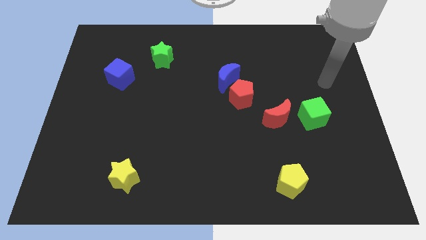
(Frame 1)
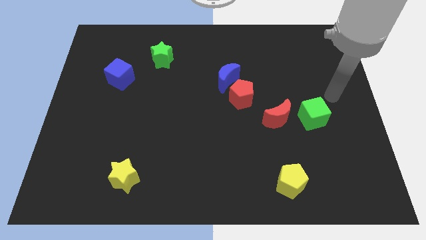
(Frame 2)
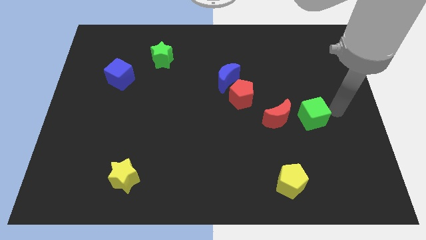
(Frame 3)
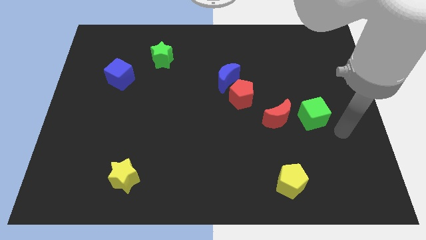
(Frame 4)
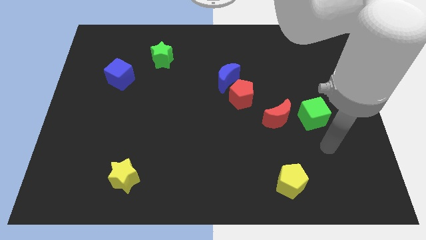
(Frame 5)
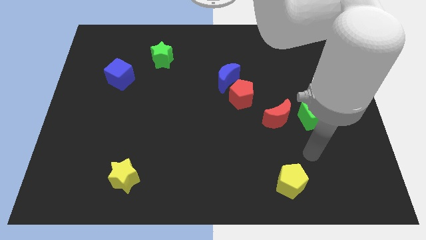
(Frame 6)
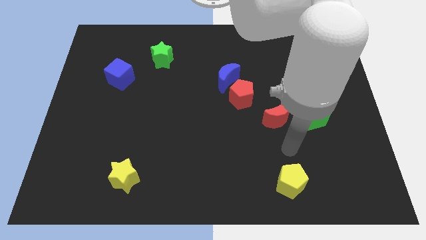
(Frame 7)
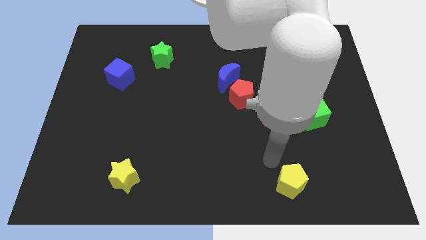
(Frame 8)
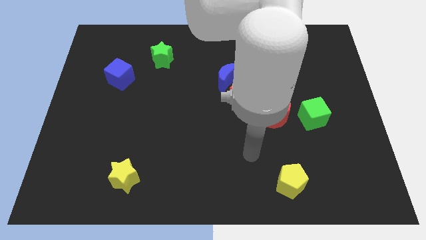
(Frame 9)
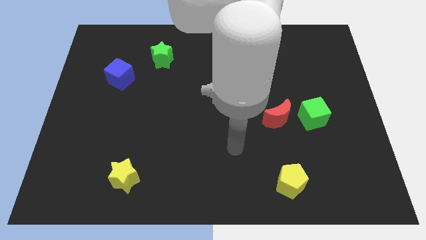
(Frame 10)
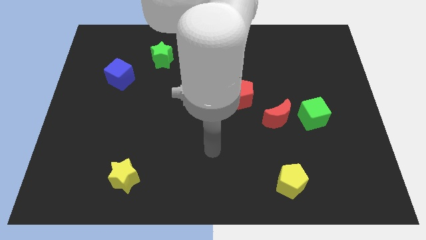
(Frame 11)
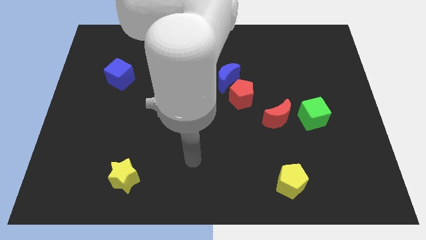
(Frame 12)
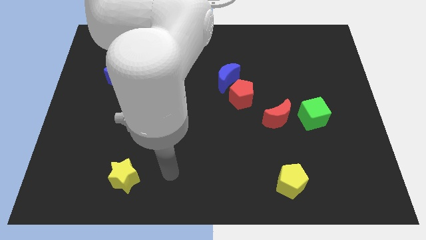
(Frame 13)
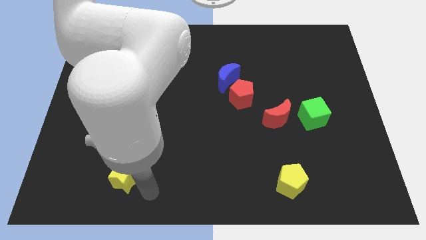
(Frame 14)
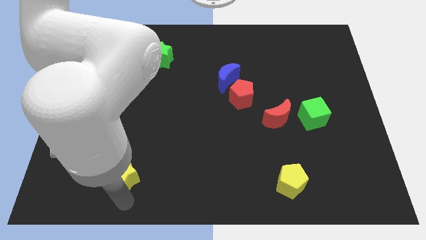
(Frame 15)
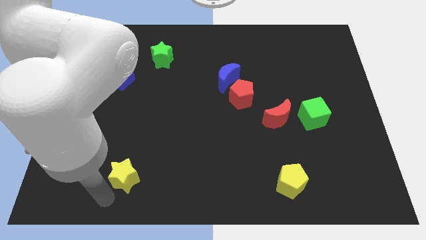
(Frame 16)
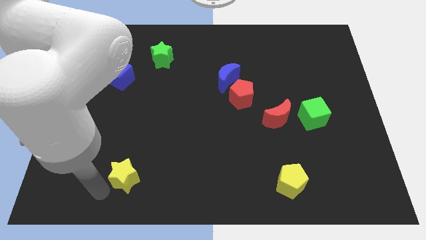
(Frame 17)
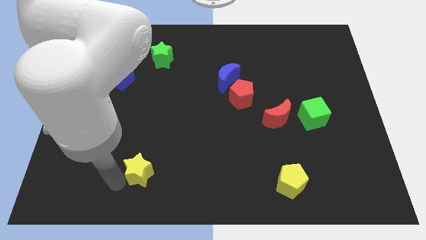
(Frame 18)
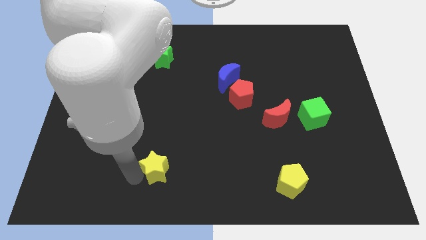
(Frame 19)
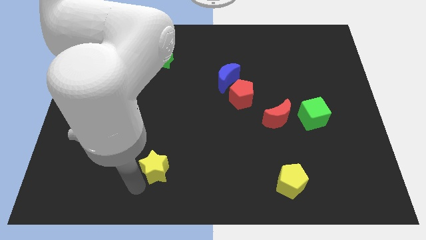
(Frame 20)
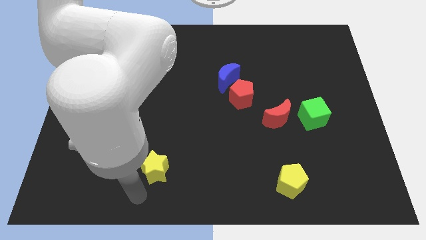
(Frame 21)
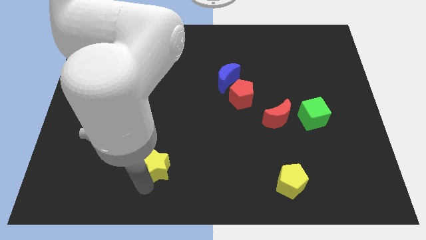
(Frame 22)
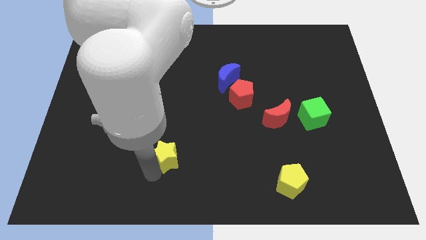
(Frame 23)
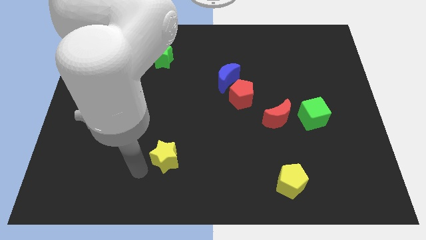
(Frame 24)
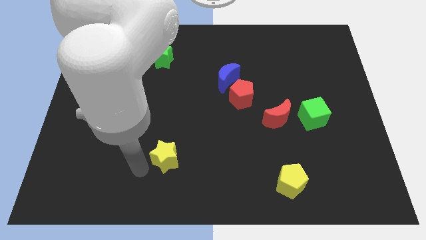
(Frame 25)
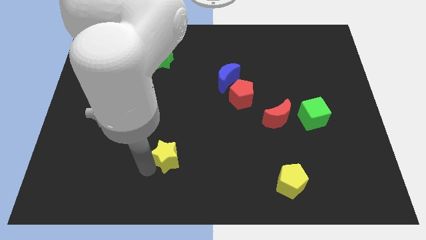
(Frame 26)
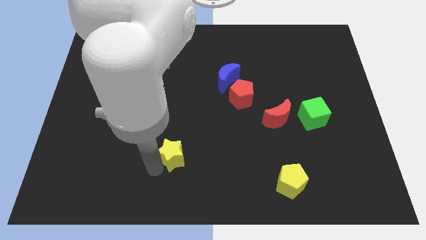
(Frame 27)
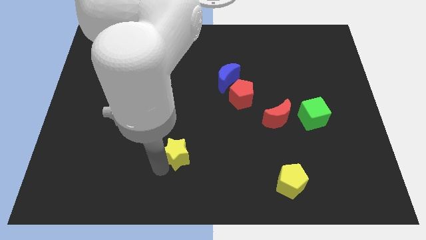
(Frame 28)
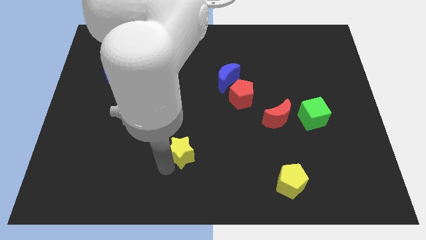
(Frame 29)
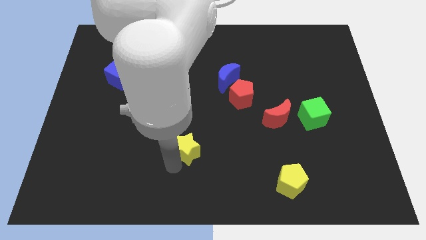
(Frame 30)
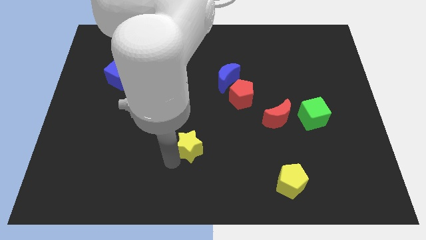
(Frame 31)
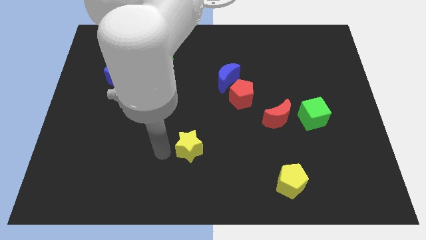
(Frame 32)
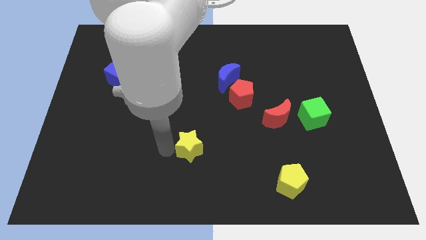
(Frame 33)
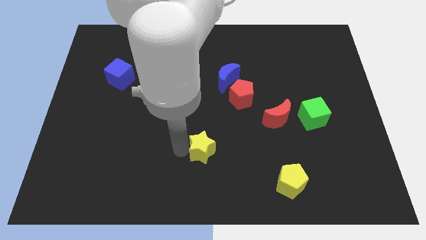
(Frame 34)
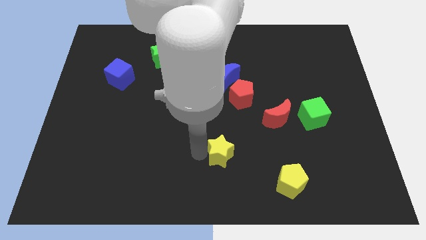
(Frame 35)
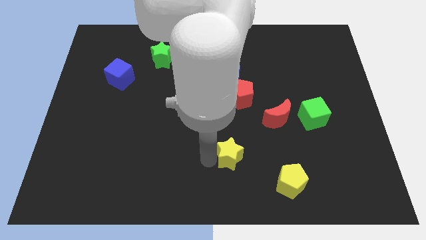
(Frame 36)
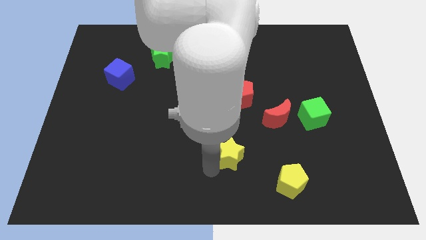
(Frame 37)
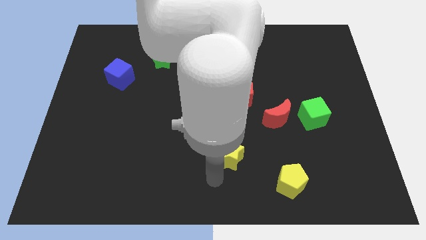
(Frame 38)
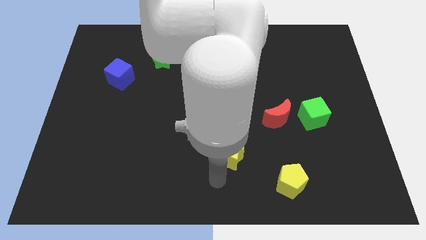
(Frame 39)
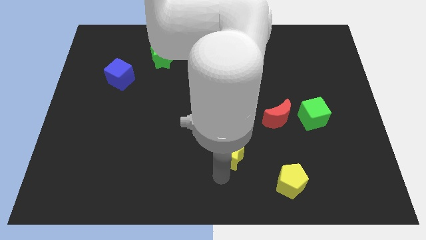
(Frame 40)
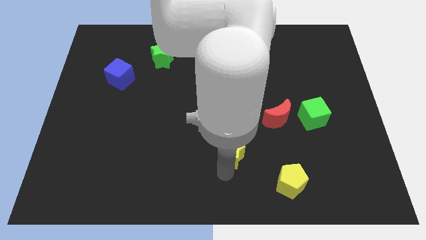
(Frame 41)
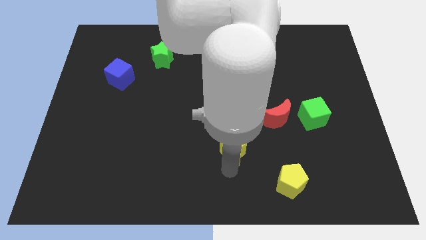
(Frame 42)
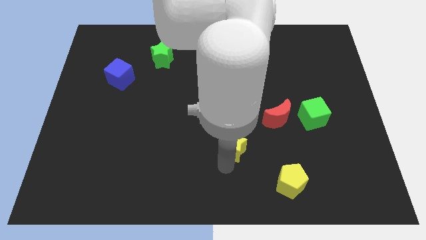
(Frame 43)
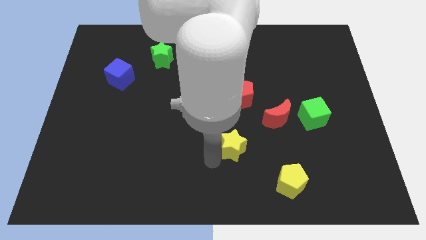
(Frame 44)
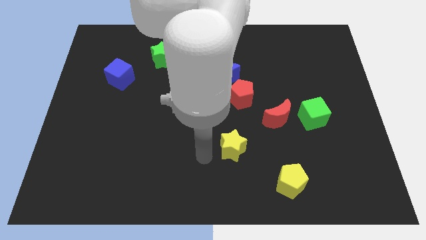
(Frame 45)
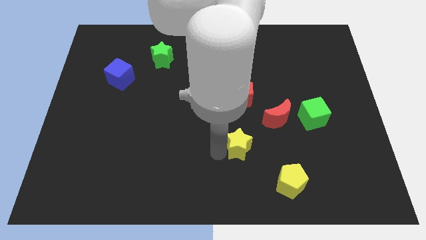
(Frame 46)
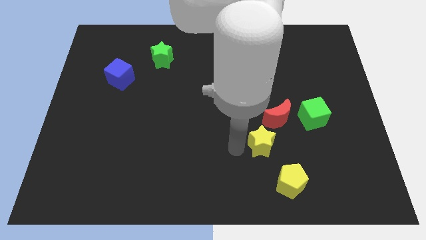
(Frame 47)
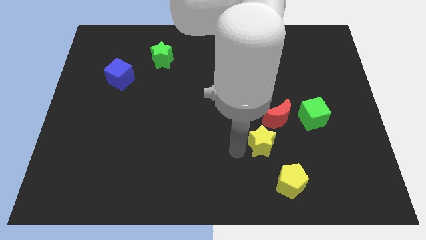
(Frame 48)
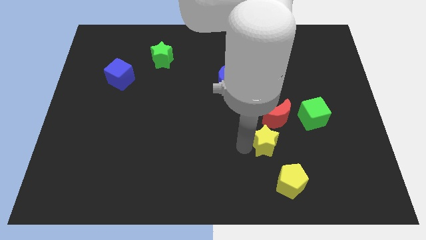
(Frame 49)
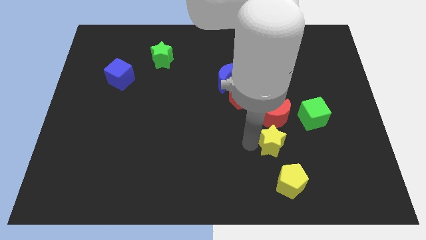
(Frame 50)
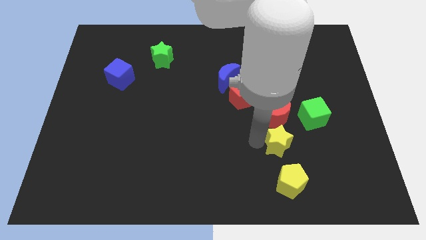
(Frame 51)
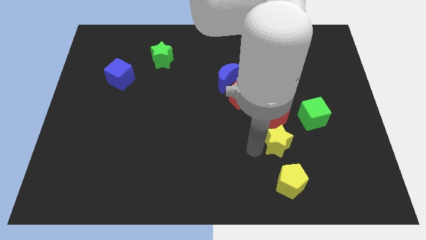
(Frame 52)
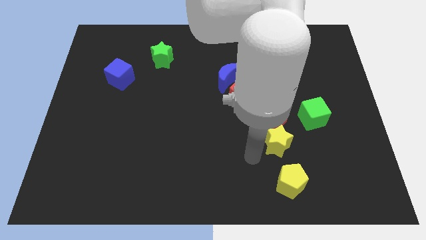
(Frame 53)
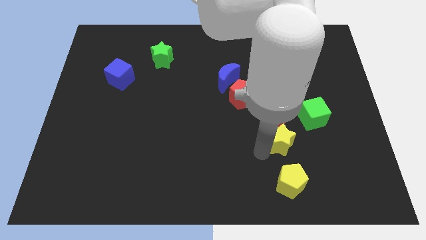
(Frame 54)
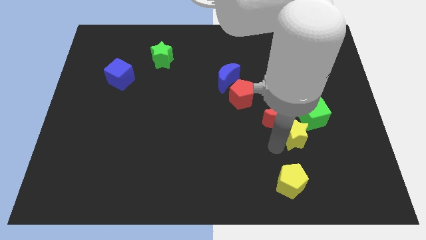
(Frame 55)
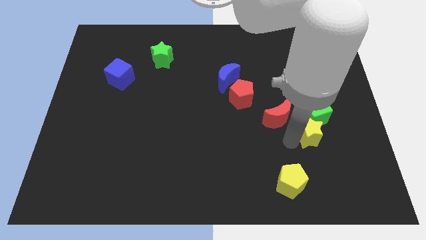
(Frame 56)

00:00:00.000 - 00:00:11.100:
slide the yellow star close to the green cube

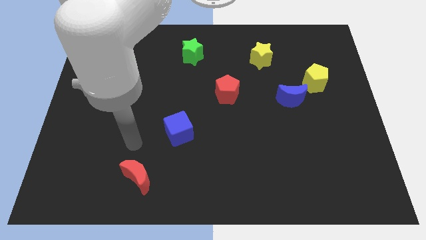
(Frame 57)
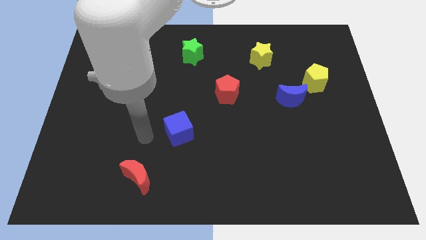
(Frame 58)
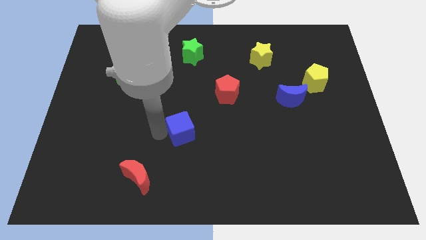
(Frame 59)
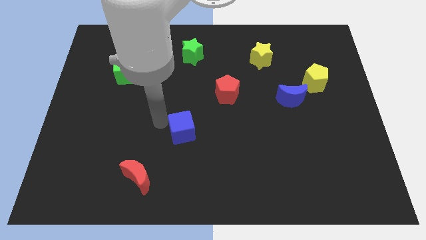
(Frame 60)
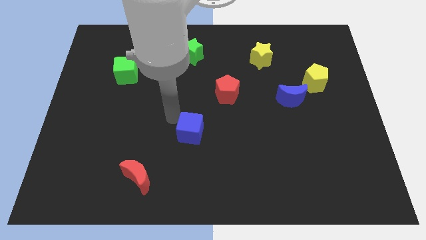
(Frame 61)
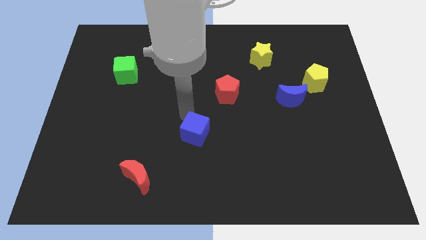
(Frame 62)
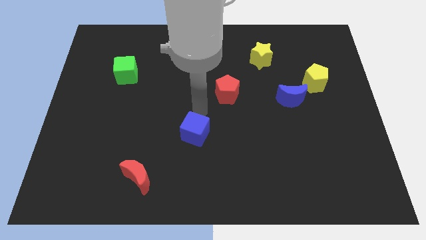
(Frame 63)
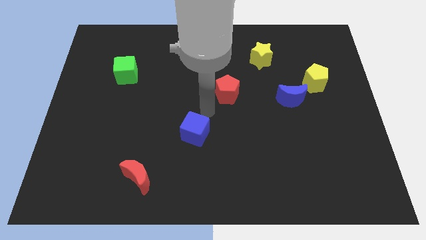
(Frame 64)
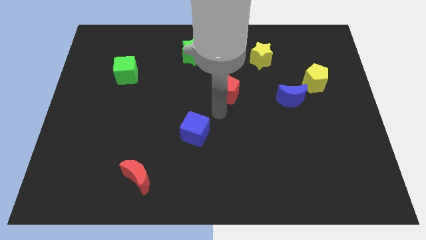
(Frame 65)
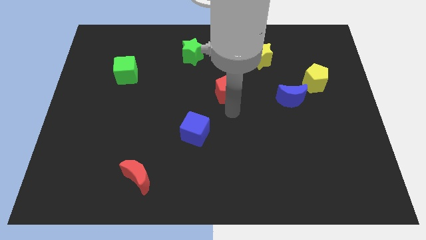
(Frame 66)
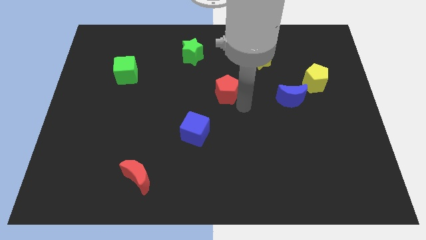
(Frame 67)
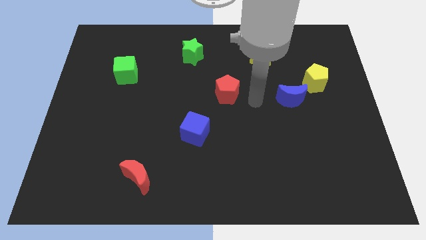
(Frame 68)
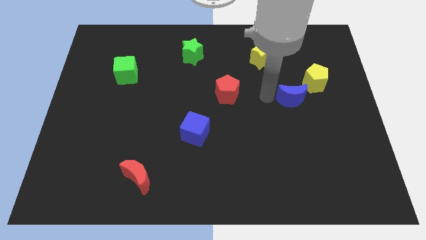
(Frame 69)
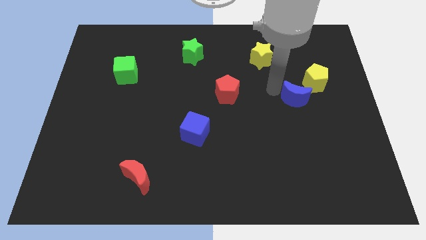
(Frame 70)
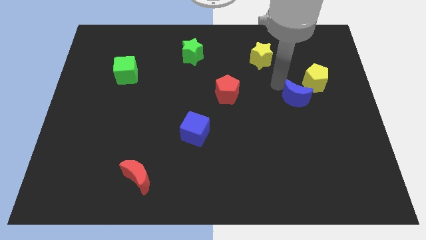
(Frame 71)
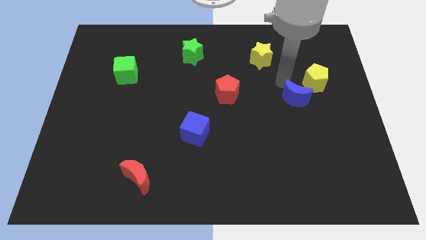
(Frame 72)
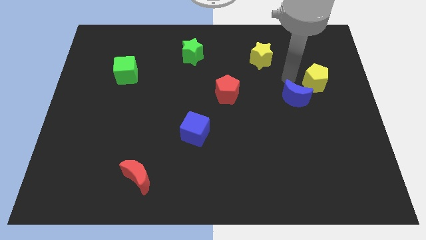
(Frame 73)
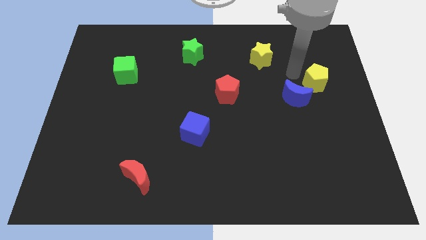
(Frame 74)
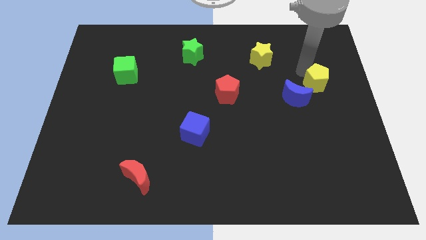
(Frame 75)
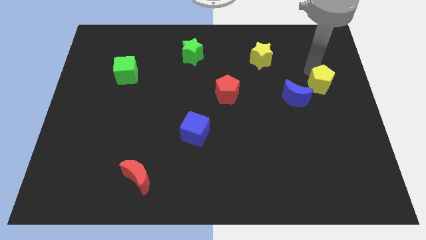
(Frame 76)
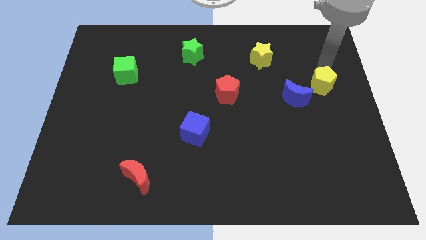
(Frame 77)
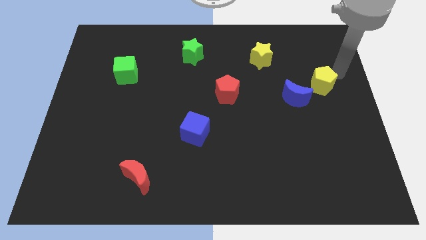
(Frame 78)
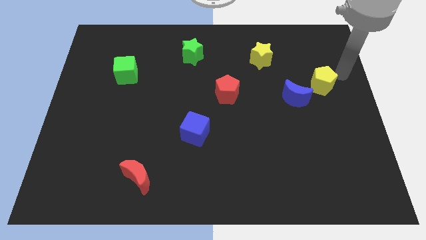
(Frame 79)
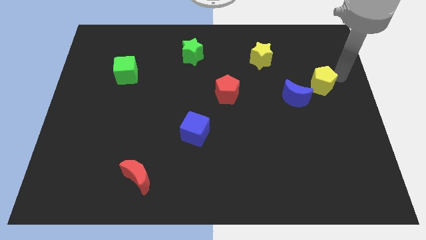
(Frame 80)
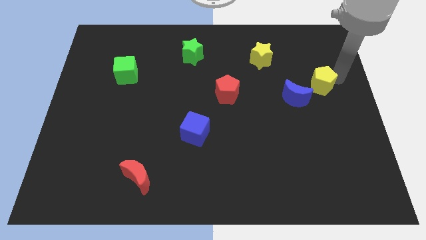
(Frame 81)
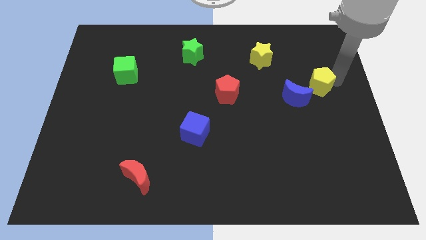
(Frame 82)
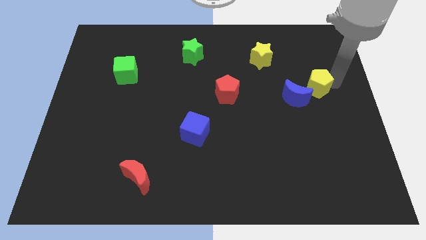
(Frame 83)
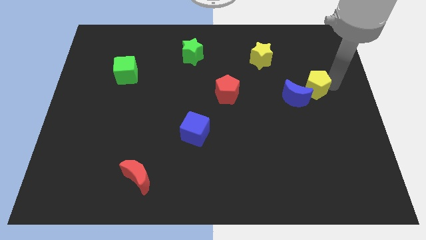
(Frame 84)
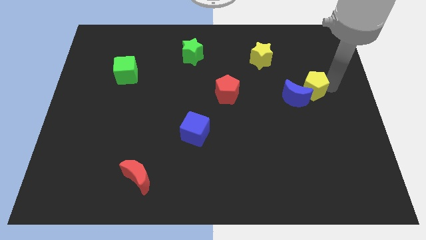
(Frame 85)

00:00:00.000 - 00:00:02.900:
slide the yellow pentagon to the blue moon
